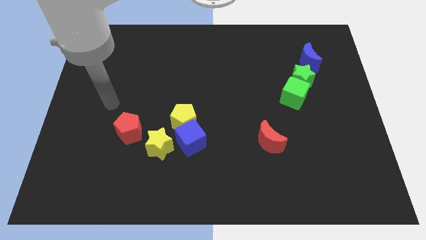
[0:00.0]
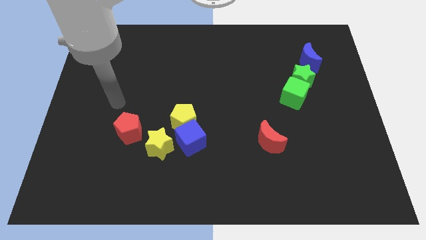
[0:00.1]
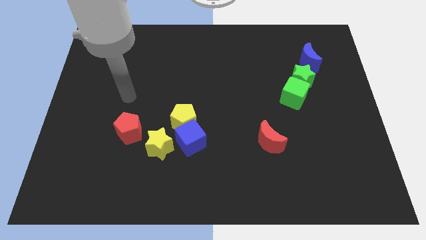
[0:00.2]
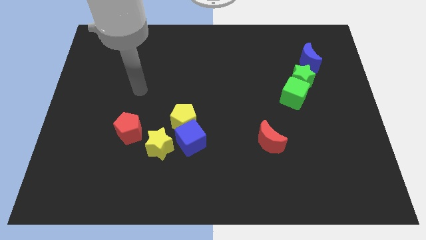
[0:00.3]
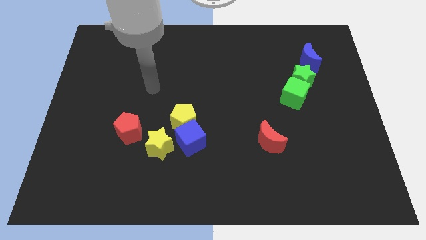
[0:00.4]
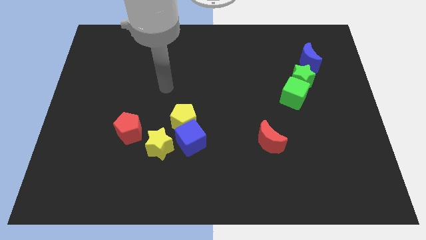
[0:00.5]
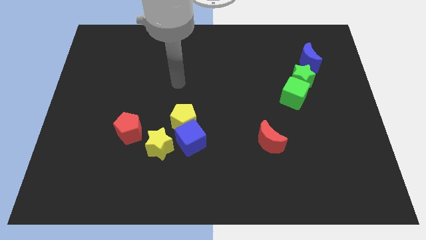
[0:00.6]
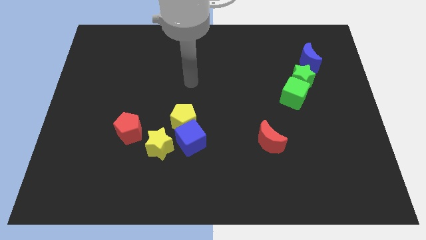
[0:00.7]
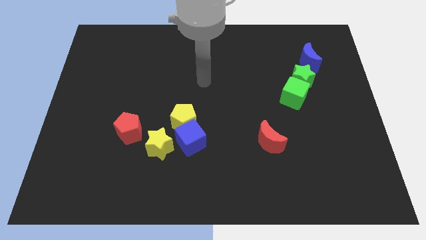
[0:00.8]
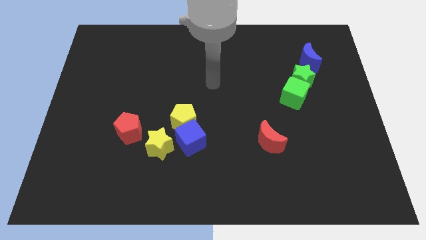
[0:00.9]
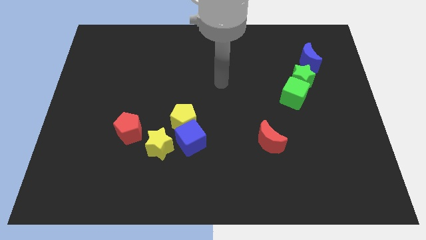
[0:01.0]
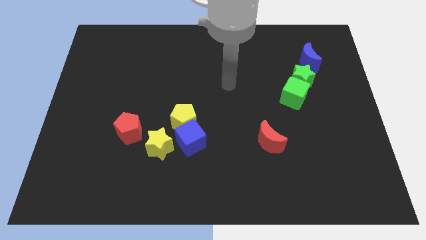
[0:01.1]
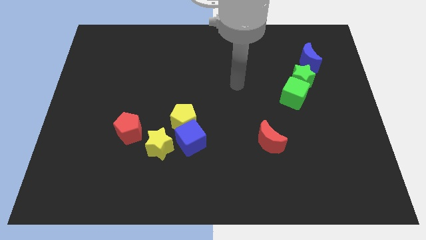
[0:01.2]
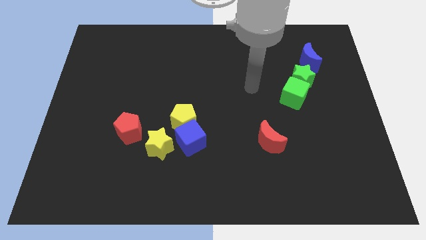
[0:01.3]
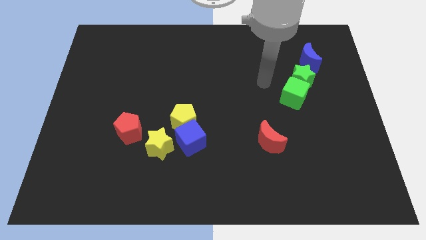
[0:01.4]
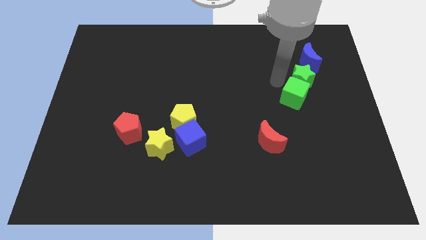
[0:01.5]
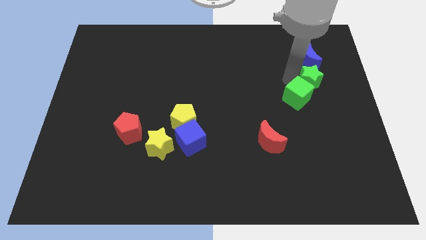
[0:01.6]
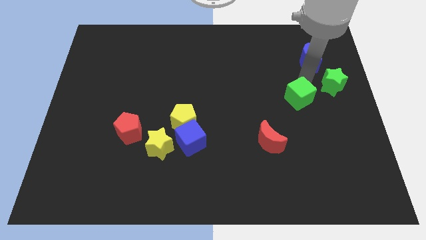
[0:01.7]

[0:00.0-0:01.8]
move the green cube away from the green star

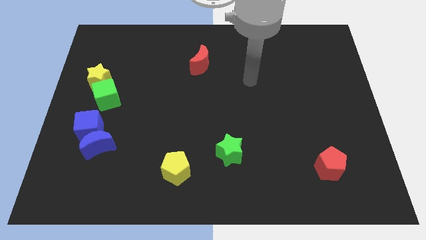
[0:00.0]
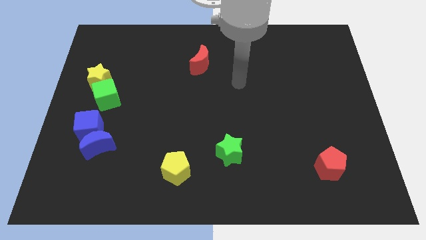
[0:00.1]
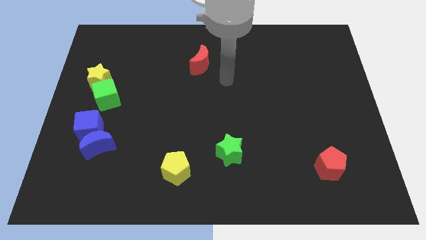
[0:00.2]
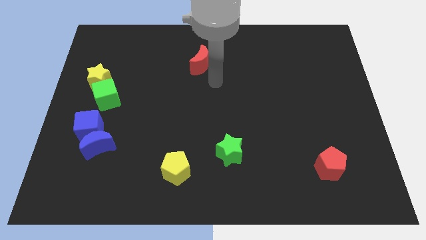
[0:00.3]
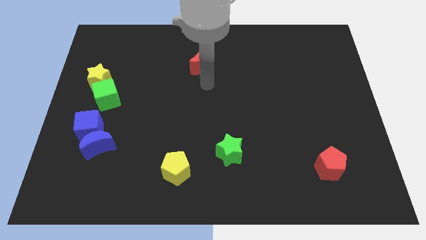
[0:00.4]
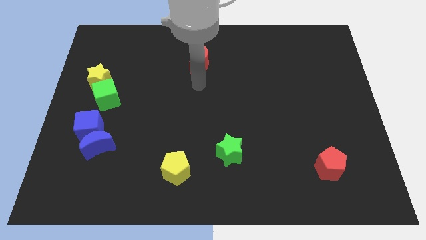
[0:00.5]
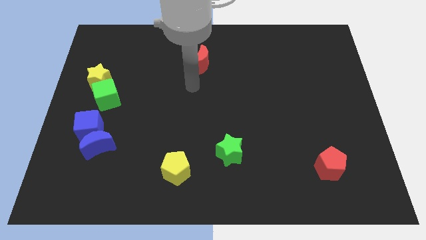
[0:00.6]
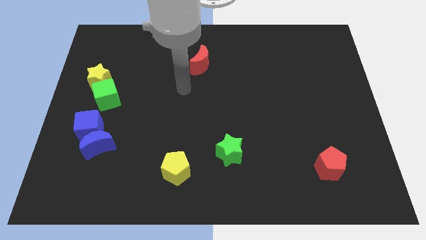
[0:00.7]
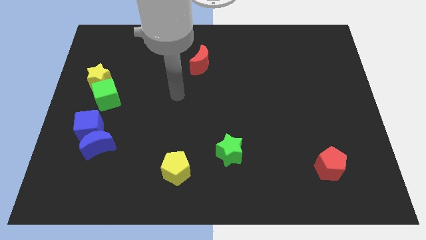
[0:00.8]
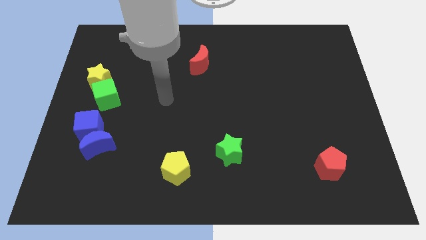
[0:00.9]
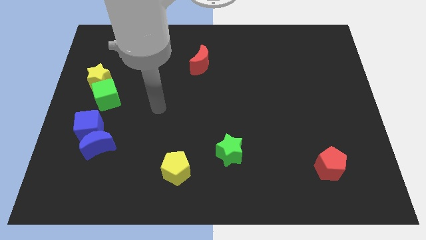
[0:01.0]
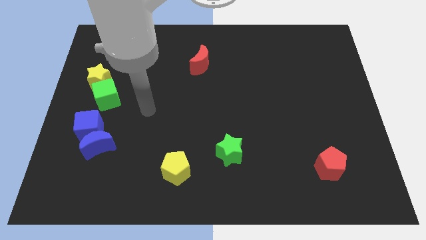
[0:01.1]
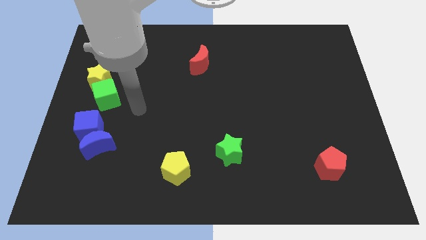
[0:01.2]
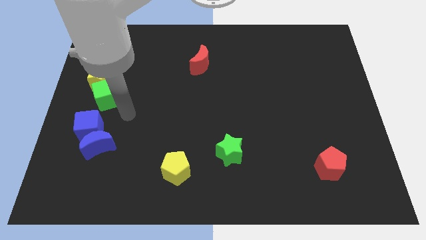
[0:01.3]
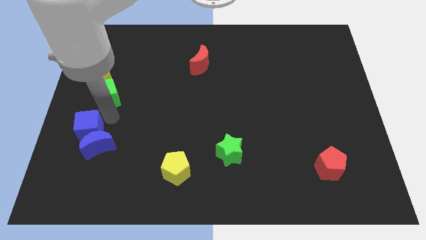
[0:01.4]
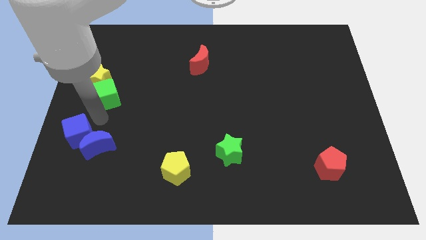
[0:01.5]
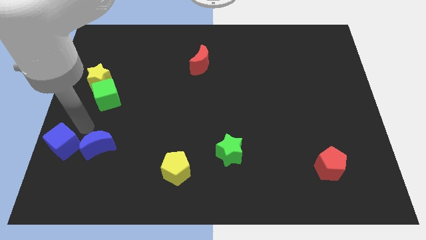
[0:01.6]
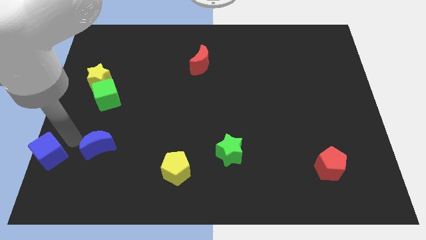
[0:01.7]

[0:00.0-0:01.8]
pull the blue moon apart from the blue cube

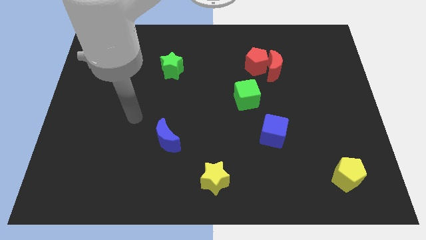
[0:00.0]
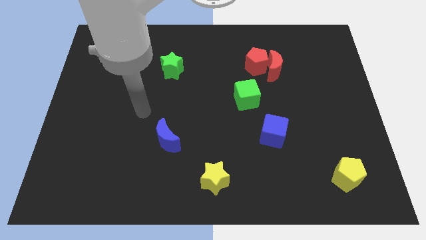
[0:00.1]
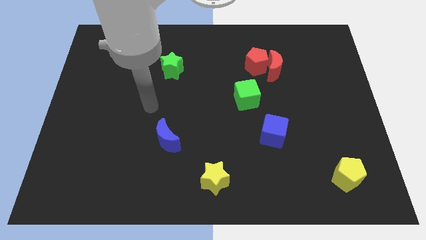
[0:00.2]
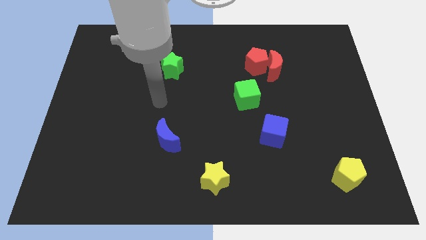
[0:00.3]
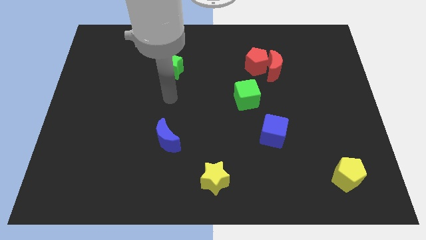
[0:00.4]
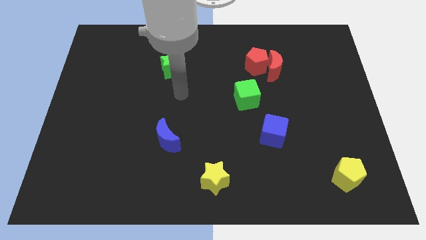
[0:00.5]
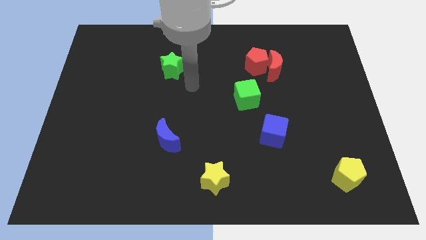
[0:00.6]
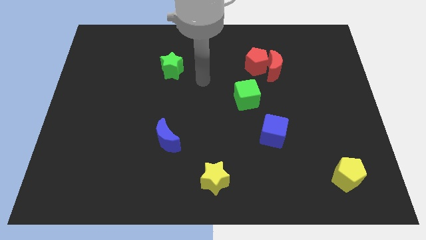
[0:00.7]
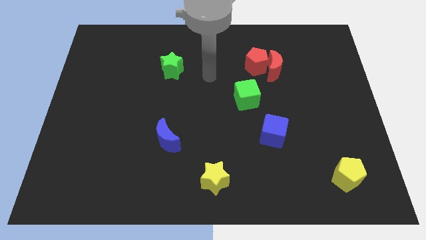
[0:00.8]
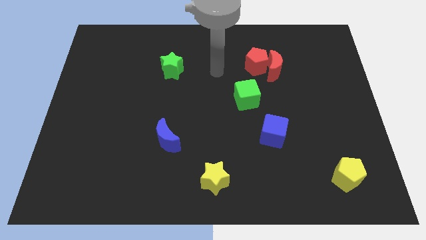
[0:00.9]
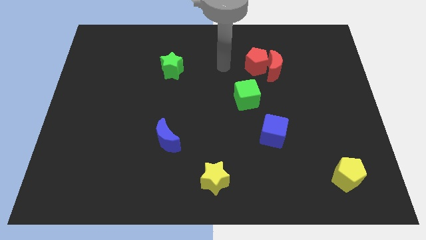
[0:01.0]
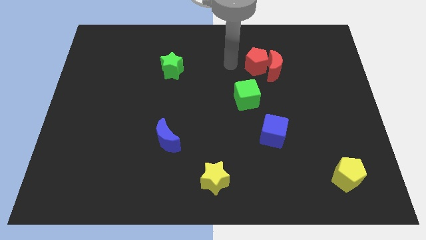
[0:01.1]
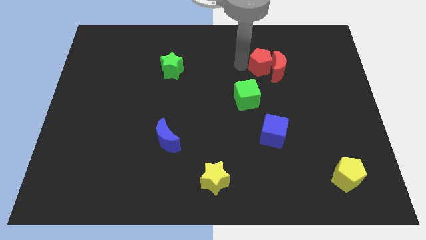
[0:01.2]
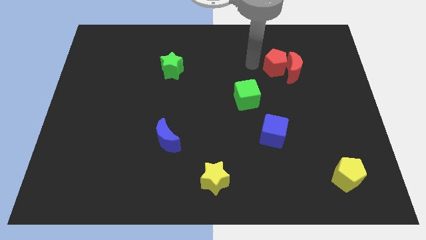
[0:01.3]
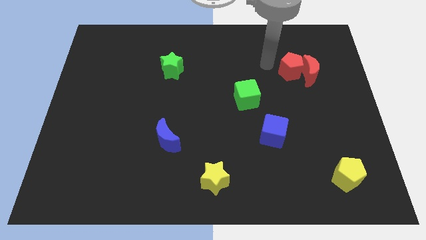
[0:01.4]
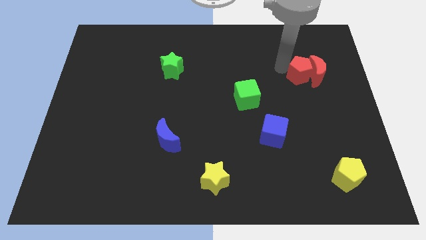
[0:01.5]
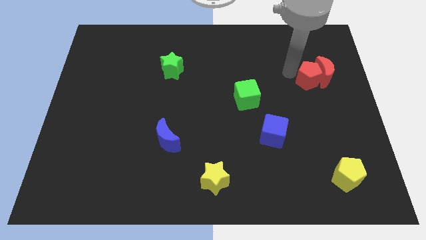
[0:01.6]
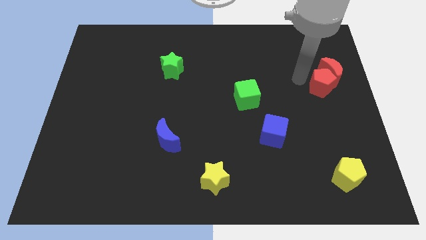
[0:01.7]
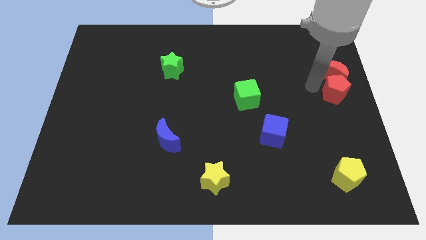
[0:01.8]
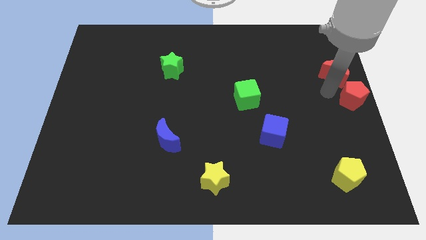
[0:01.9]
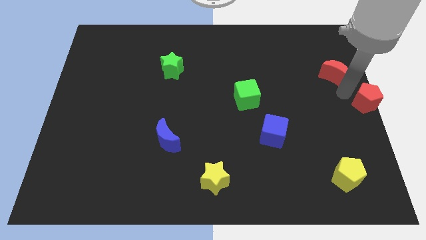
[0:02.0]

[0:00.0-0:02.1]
separate the red moon from the red pentagon

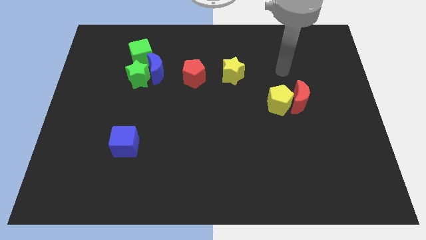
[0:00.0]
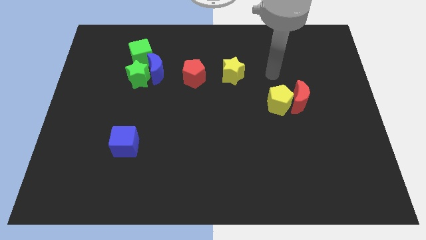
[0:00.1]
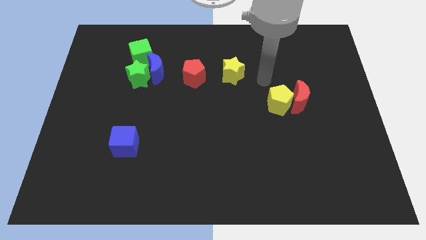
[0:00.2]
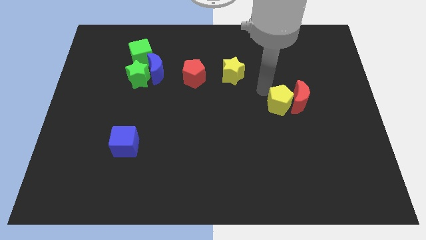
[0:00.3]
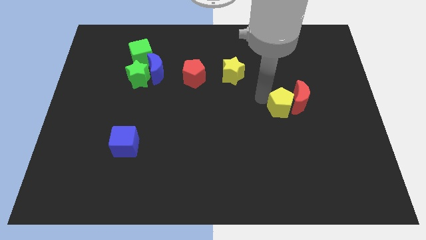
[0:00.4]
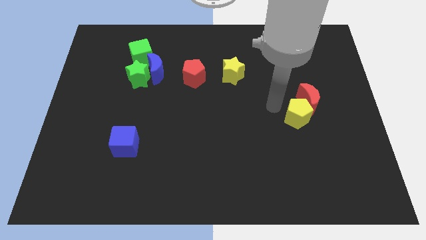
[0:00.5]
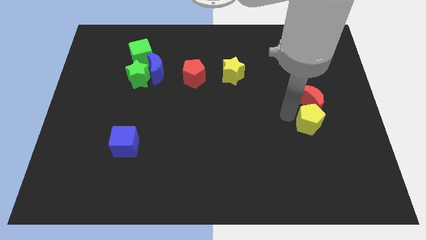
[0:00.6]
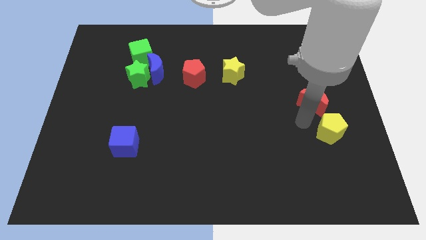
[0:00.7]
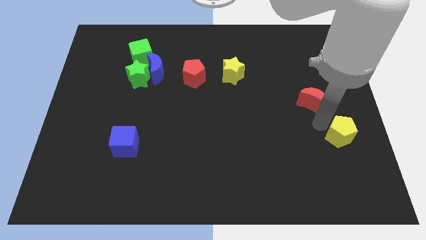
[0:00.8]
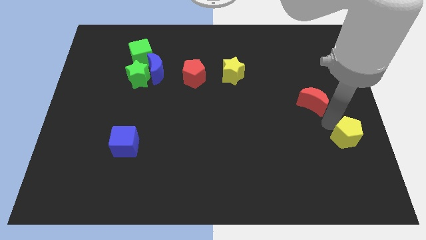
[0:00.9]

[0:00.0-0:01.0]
pull the red moon apart from the yellow pentagon

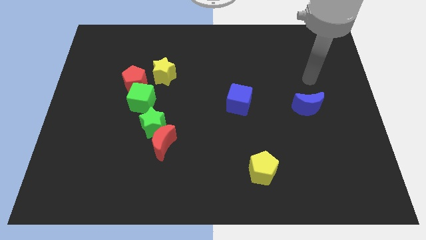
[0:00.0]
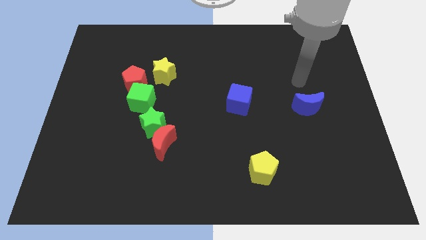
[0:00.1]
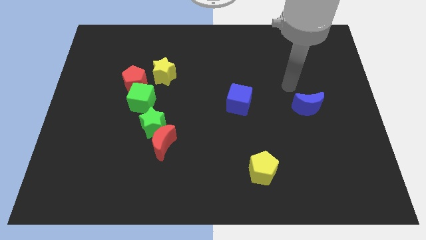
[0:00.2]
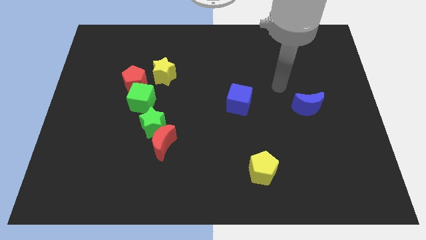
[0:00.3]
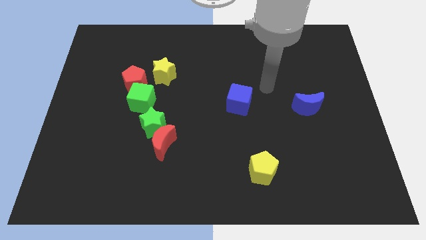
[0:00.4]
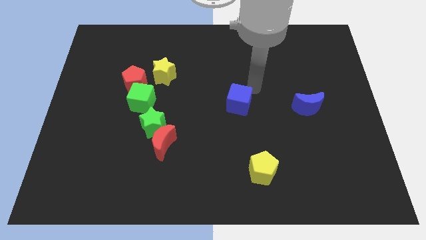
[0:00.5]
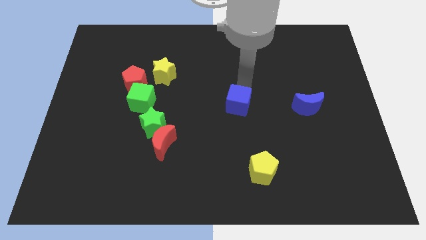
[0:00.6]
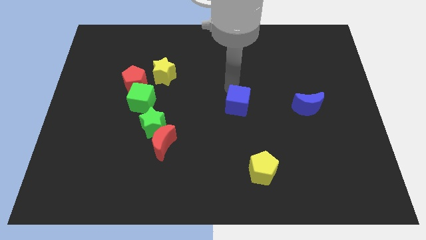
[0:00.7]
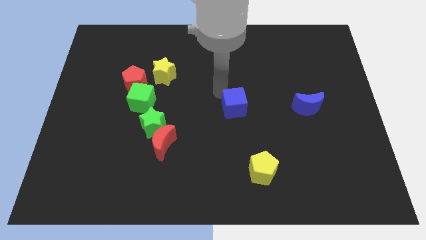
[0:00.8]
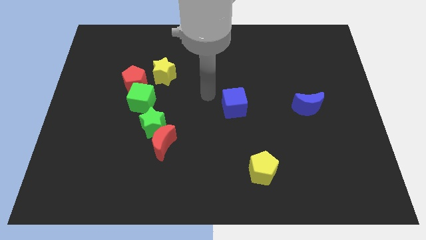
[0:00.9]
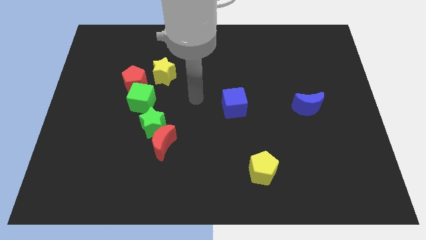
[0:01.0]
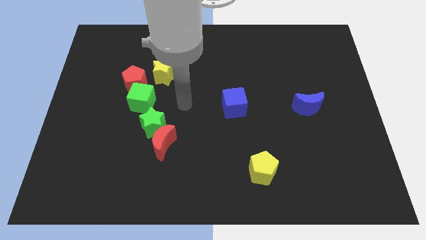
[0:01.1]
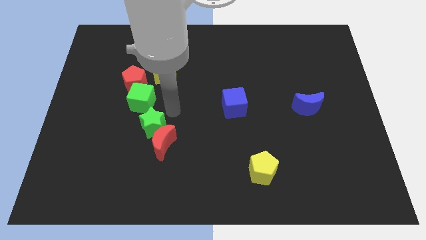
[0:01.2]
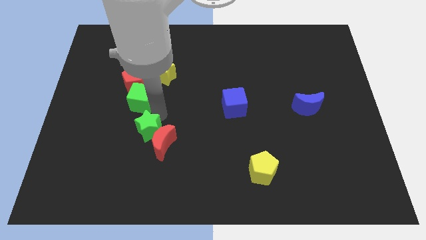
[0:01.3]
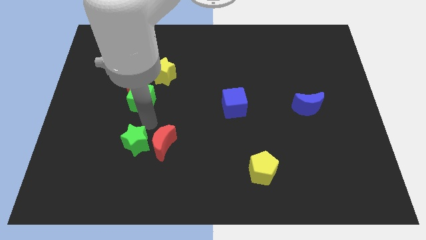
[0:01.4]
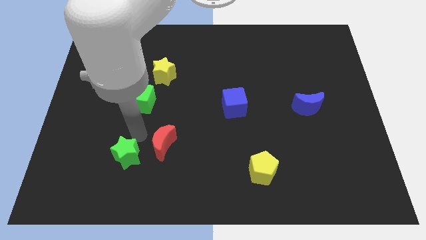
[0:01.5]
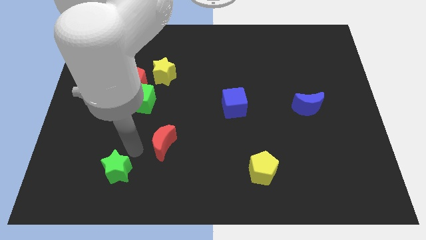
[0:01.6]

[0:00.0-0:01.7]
move the red moon away from the green star

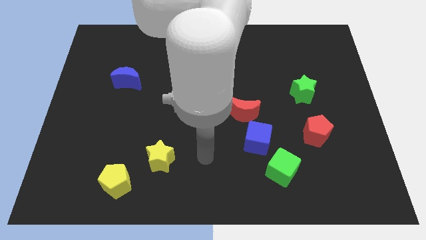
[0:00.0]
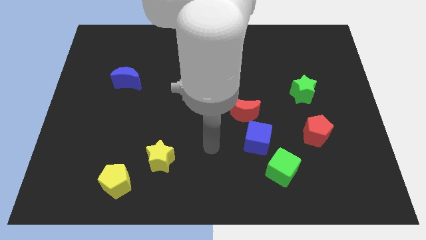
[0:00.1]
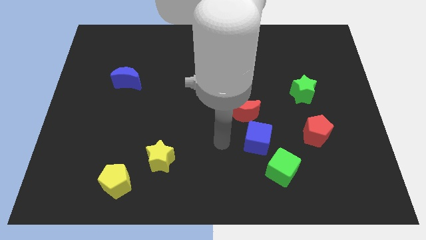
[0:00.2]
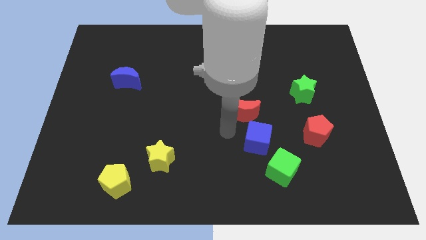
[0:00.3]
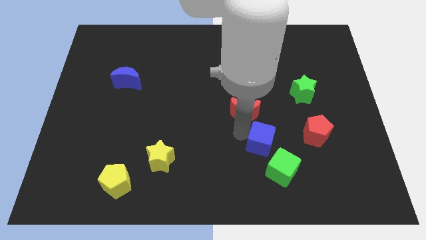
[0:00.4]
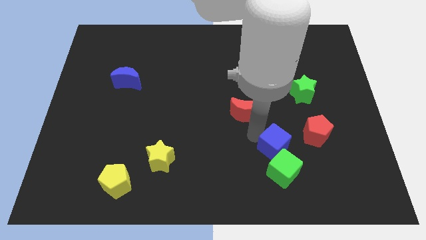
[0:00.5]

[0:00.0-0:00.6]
separate the red moon from the blue cube

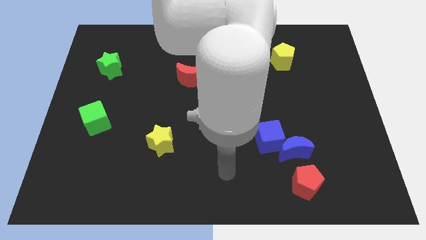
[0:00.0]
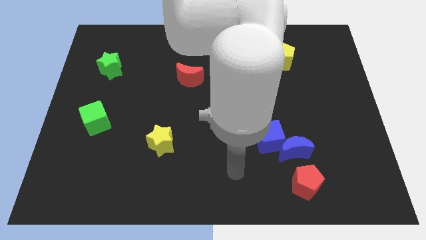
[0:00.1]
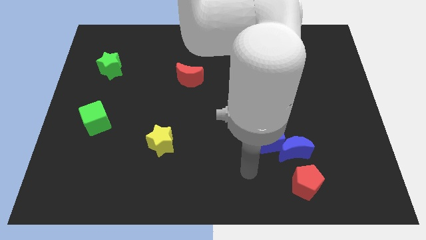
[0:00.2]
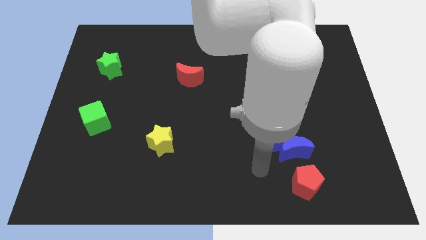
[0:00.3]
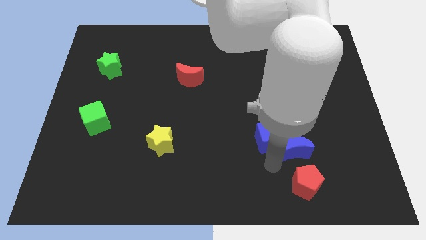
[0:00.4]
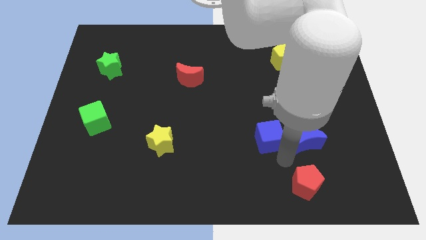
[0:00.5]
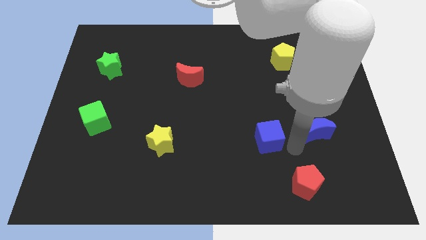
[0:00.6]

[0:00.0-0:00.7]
pull the blue cube apart from the blue moon
